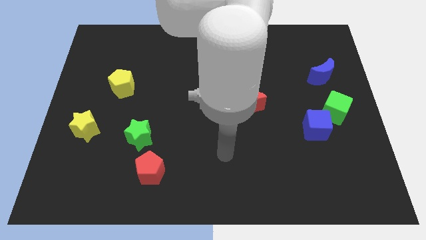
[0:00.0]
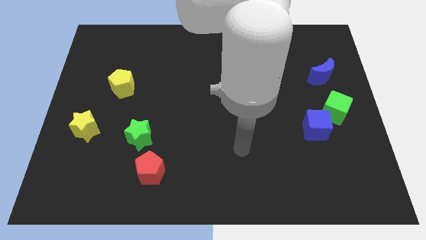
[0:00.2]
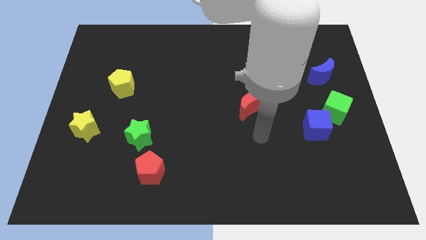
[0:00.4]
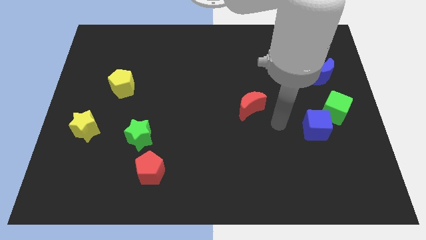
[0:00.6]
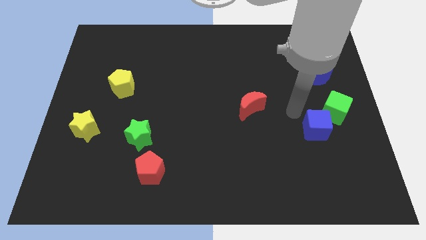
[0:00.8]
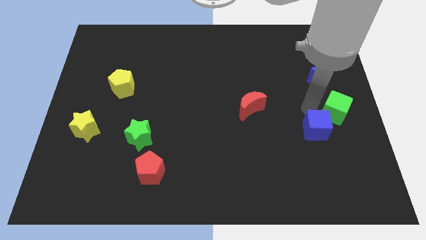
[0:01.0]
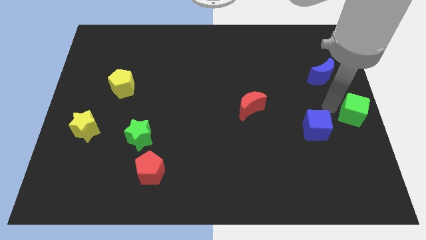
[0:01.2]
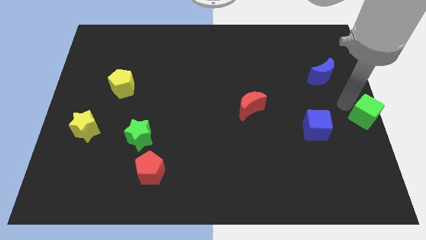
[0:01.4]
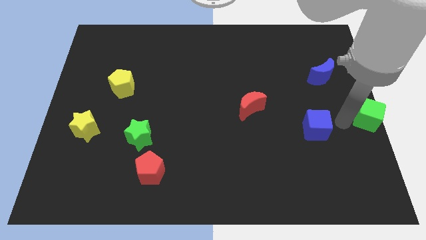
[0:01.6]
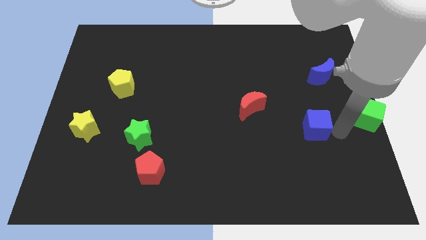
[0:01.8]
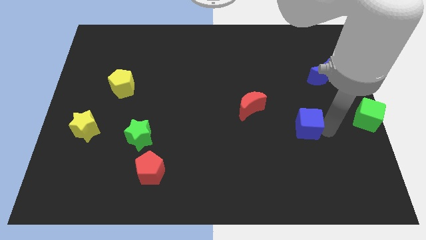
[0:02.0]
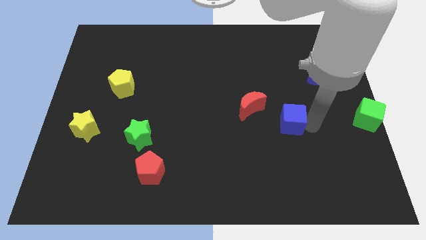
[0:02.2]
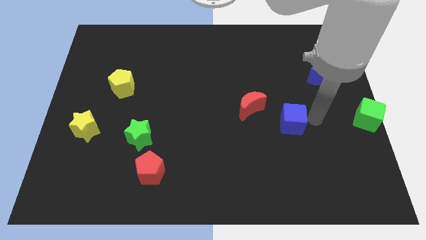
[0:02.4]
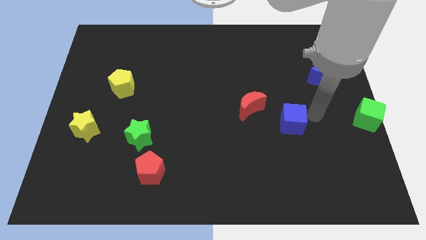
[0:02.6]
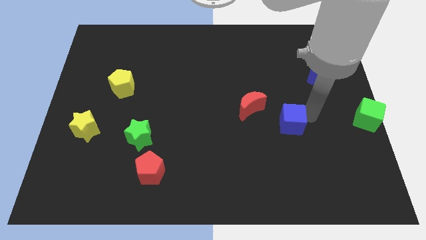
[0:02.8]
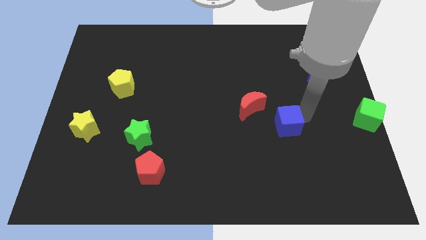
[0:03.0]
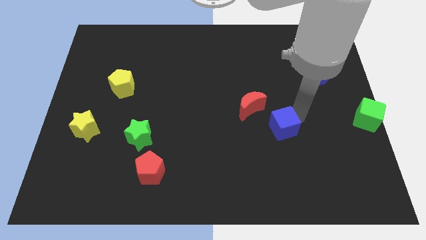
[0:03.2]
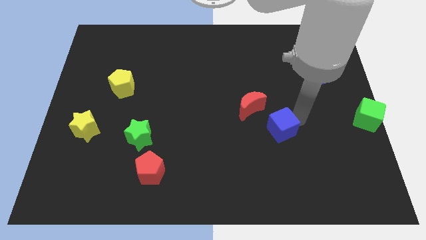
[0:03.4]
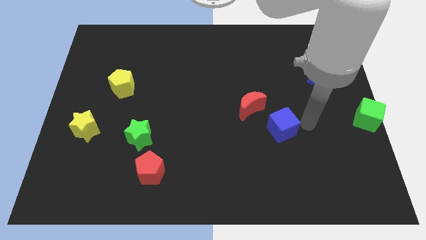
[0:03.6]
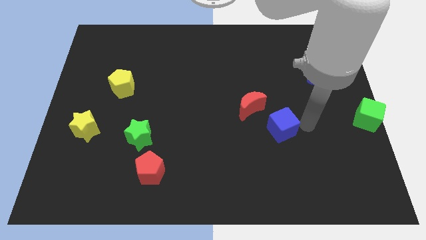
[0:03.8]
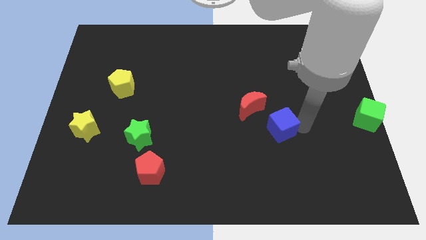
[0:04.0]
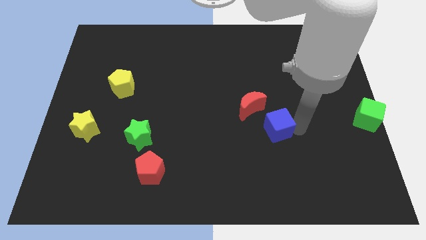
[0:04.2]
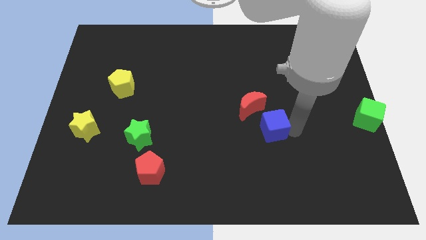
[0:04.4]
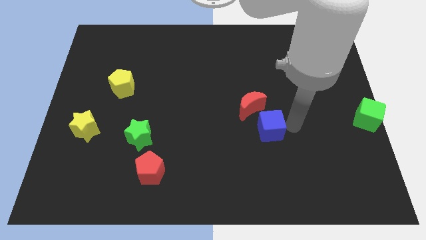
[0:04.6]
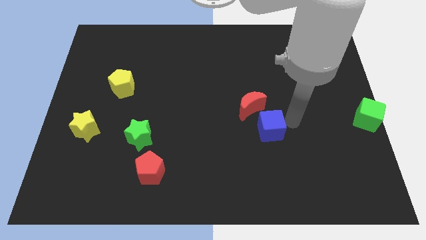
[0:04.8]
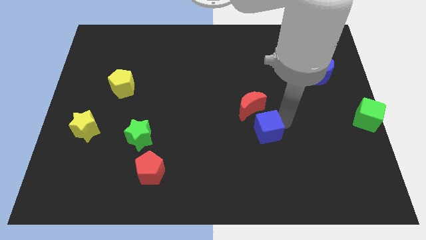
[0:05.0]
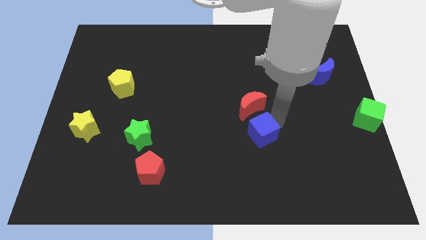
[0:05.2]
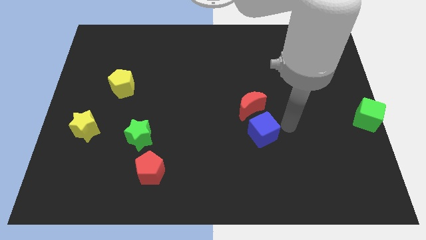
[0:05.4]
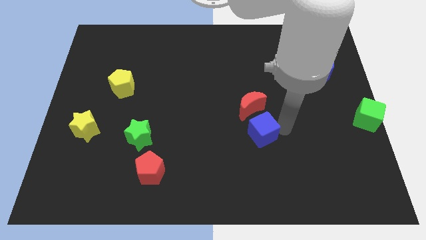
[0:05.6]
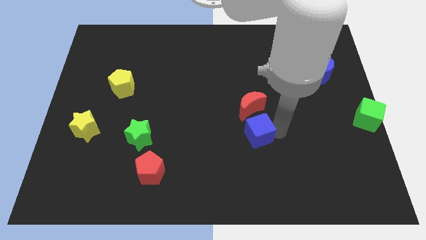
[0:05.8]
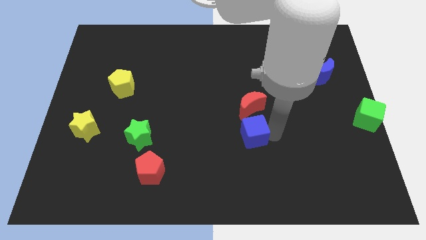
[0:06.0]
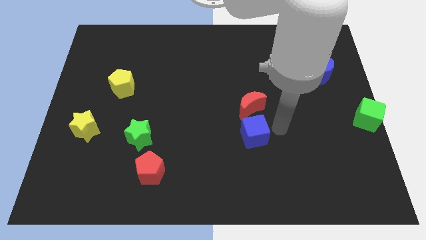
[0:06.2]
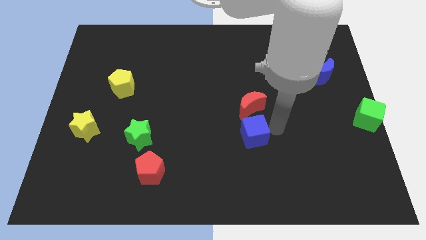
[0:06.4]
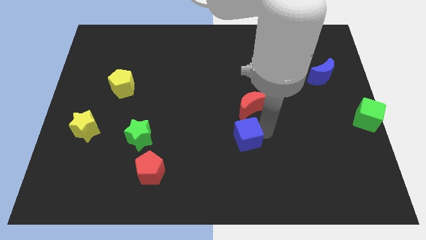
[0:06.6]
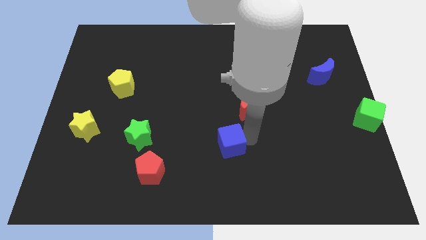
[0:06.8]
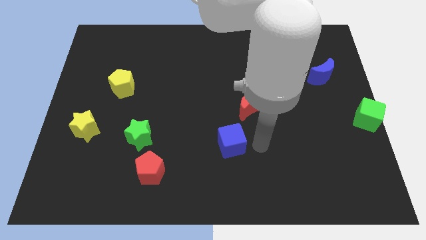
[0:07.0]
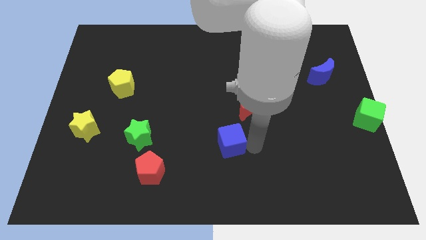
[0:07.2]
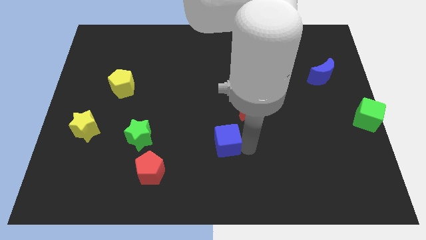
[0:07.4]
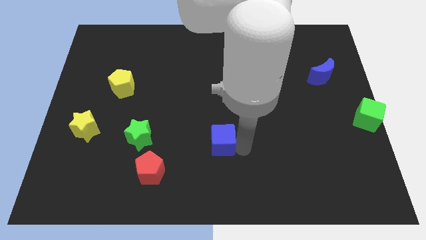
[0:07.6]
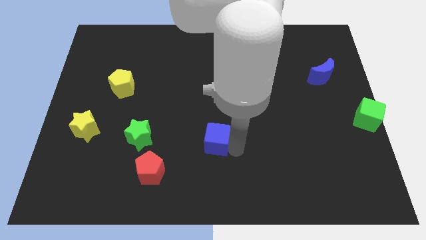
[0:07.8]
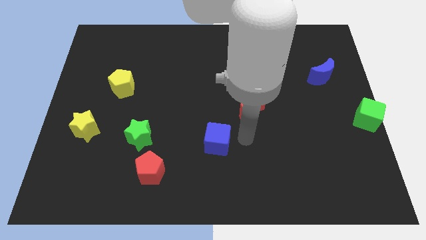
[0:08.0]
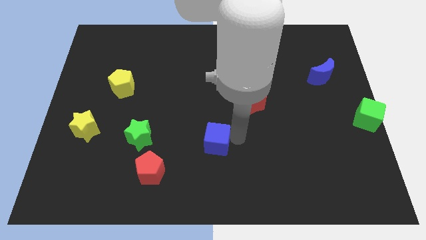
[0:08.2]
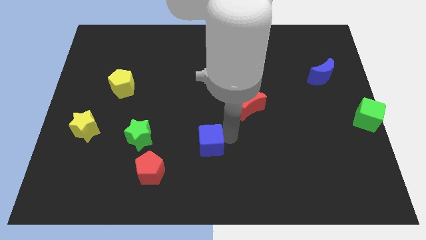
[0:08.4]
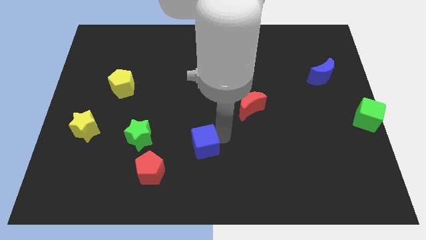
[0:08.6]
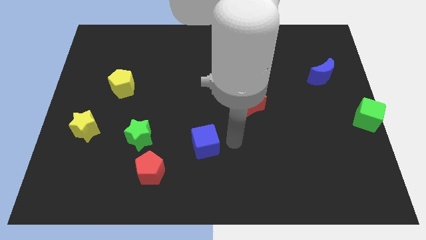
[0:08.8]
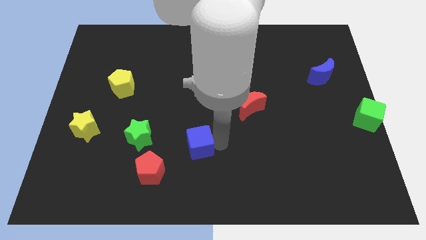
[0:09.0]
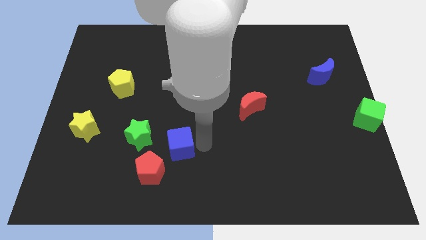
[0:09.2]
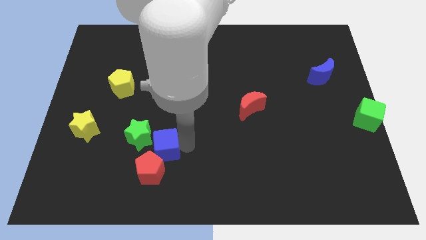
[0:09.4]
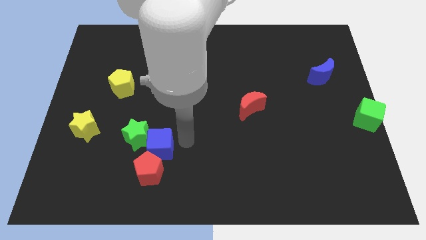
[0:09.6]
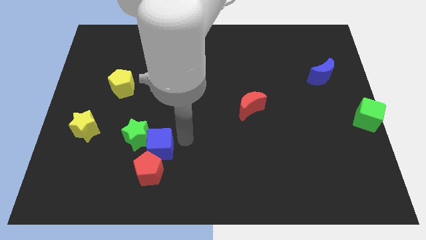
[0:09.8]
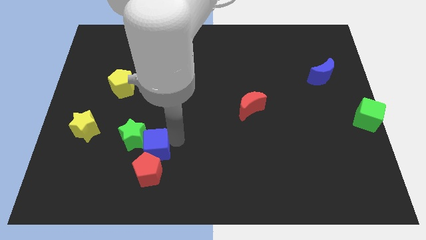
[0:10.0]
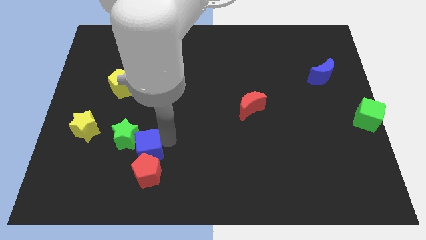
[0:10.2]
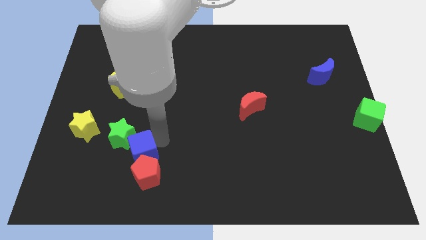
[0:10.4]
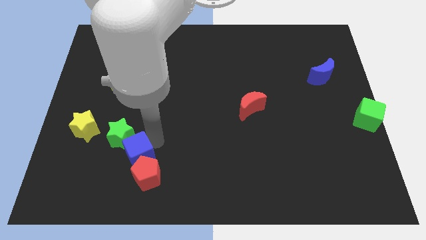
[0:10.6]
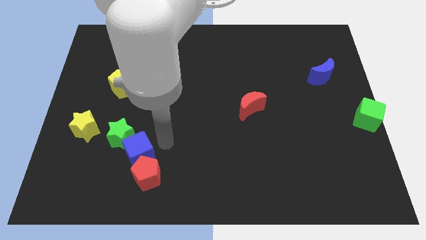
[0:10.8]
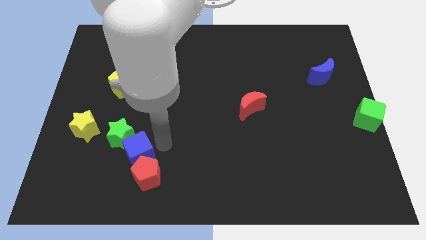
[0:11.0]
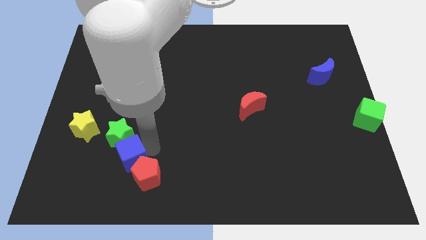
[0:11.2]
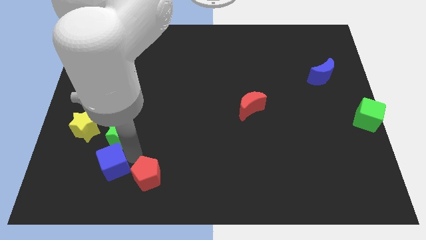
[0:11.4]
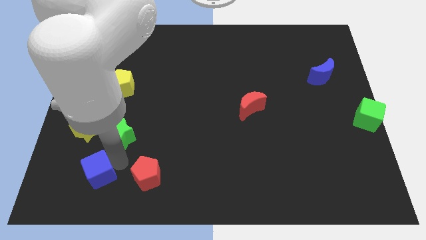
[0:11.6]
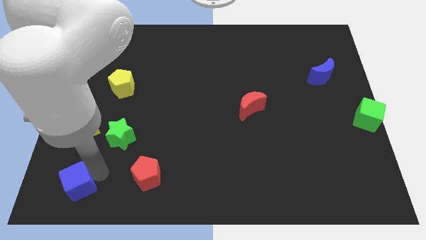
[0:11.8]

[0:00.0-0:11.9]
put the blue cube to the bottom left of the board

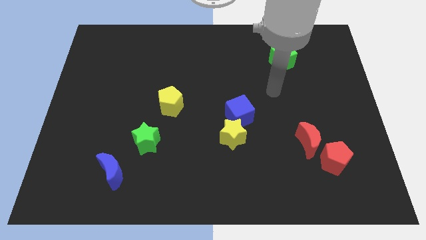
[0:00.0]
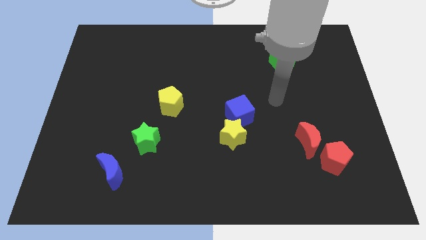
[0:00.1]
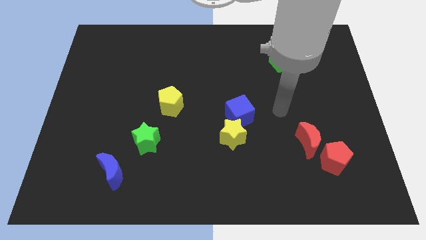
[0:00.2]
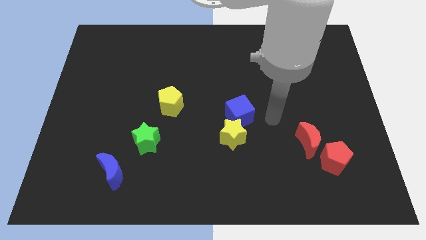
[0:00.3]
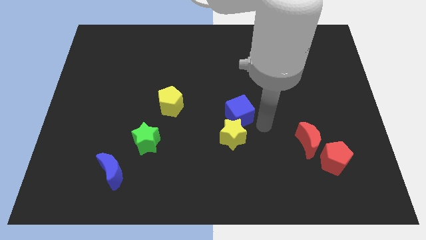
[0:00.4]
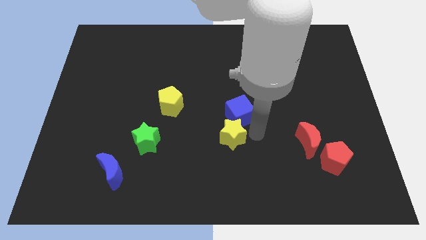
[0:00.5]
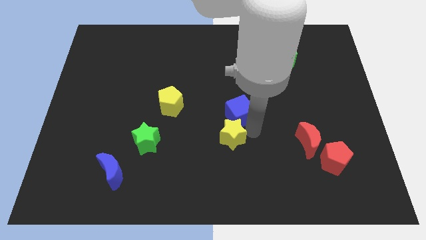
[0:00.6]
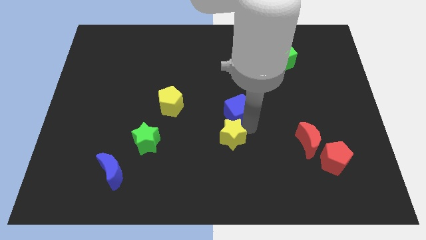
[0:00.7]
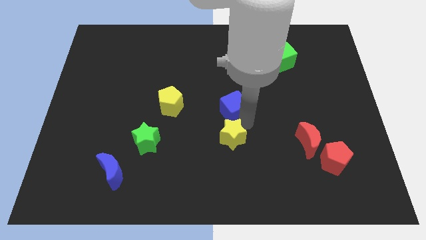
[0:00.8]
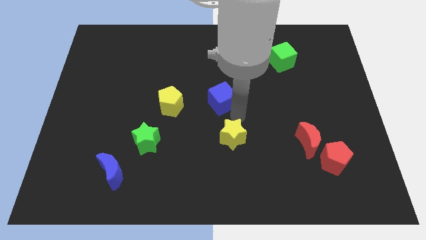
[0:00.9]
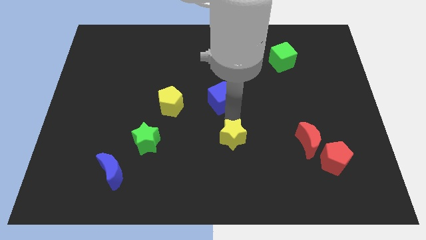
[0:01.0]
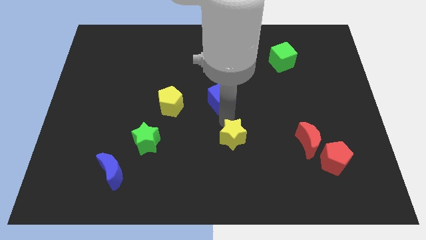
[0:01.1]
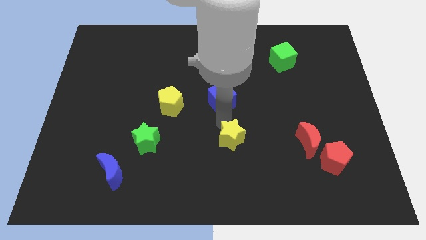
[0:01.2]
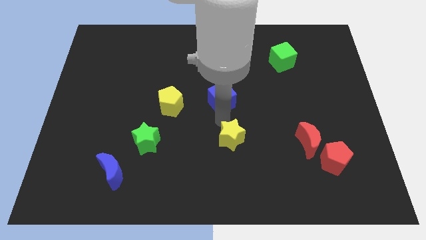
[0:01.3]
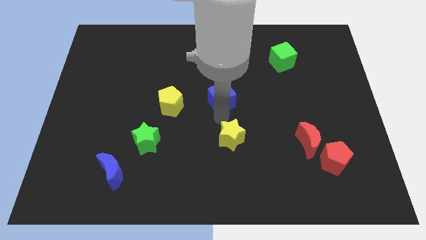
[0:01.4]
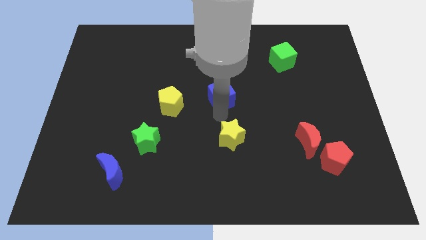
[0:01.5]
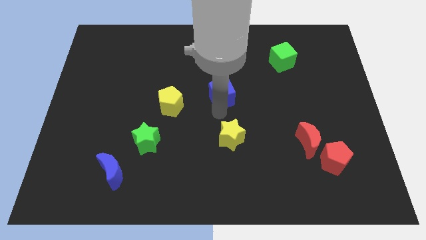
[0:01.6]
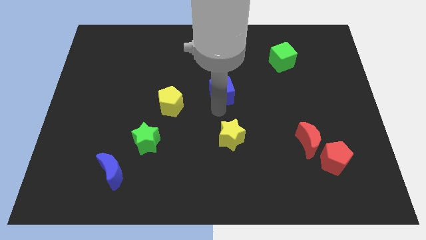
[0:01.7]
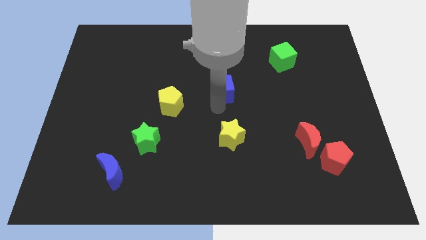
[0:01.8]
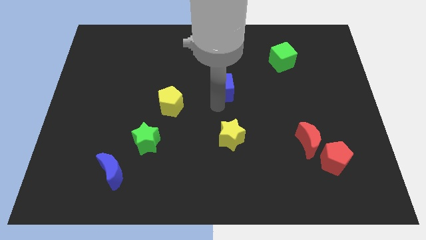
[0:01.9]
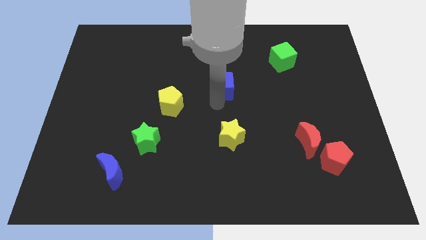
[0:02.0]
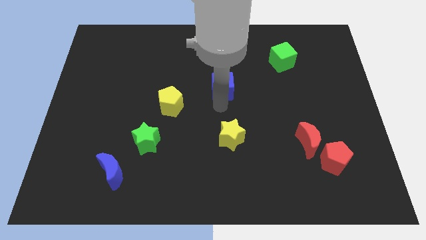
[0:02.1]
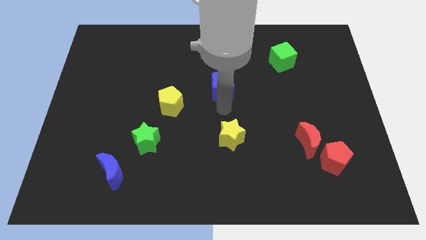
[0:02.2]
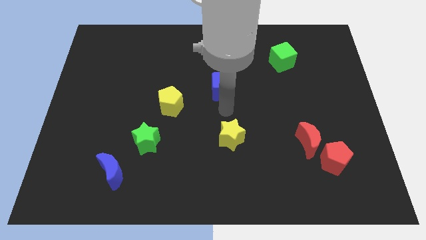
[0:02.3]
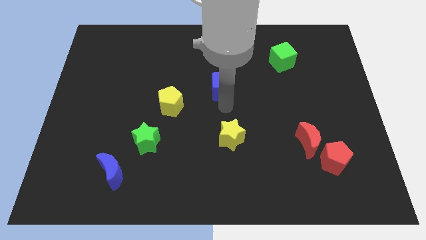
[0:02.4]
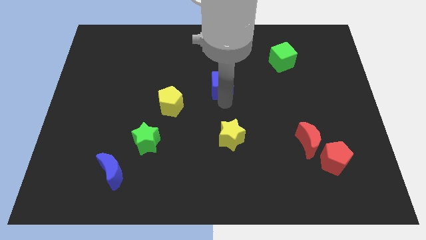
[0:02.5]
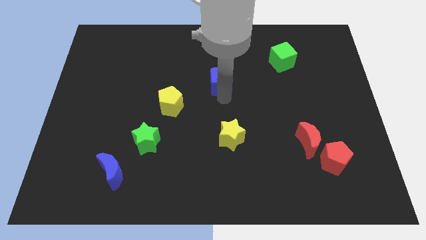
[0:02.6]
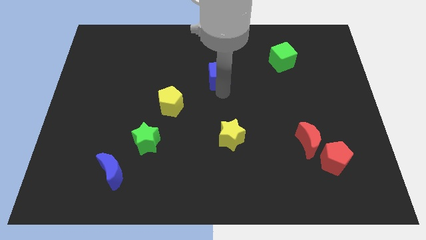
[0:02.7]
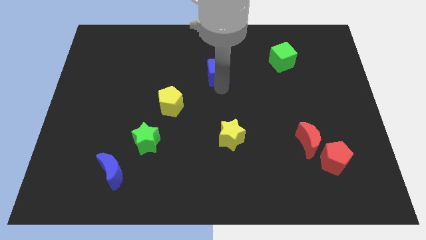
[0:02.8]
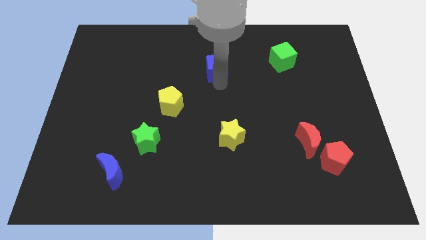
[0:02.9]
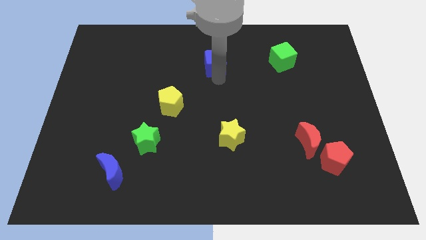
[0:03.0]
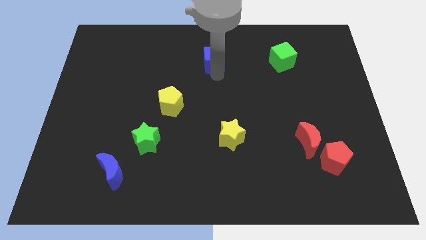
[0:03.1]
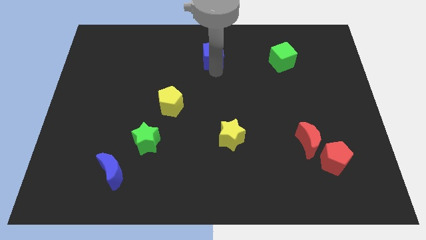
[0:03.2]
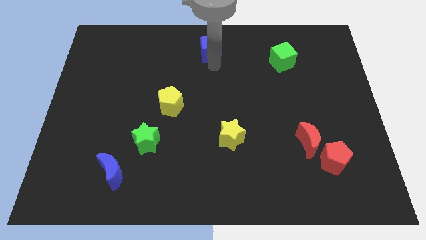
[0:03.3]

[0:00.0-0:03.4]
put the blue cube to the top
